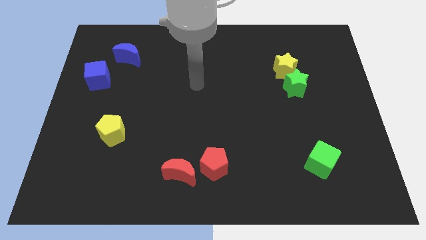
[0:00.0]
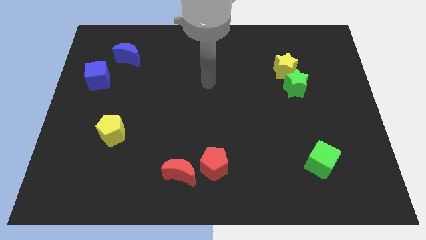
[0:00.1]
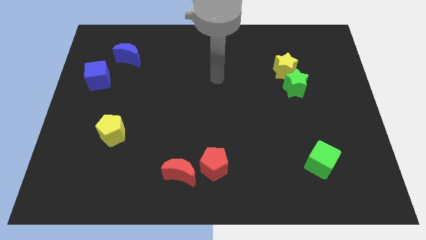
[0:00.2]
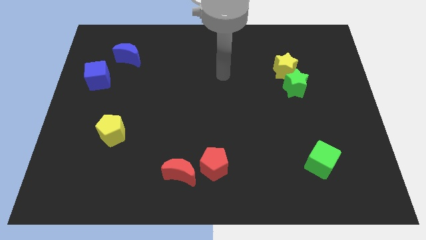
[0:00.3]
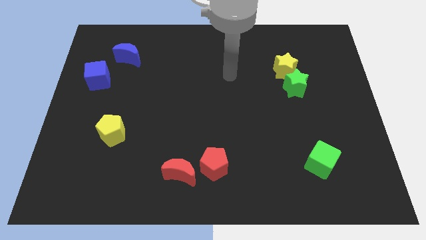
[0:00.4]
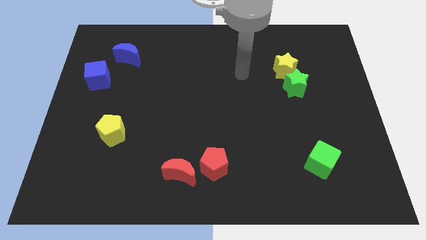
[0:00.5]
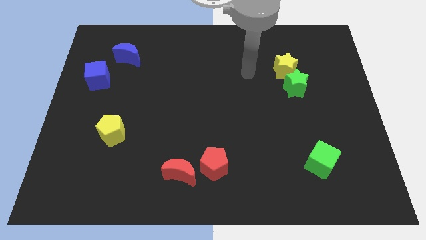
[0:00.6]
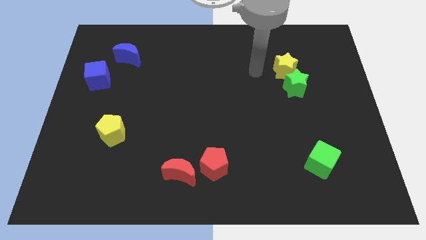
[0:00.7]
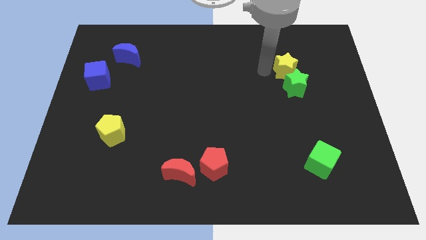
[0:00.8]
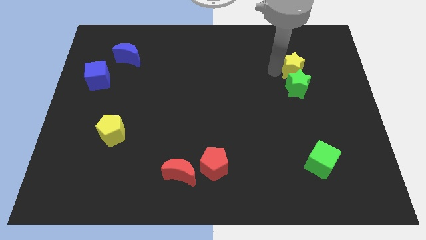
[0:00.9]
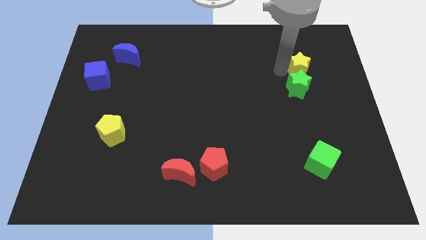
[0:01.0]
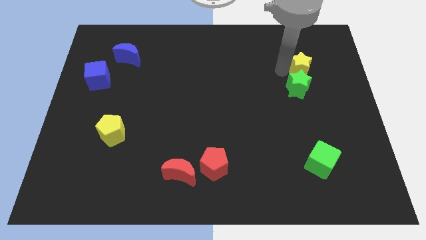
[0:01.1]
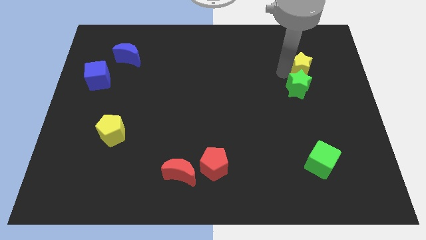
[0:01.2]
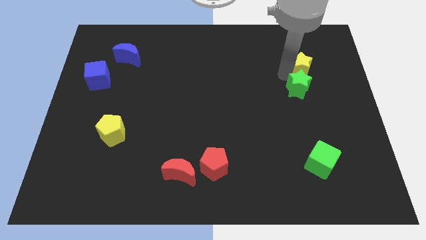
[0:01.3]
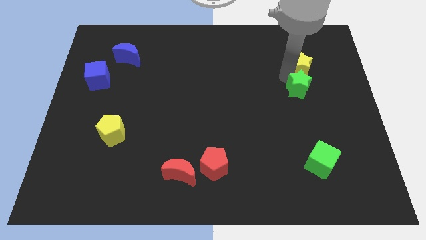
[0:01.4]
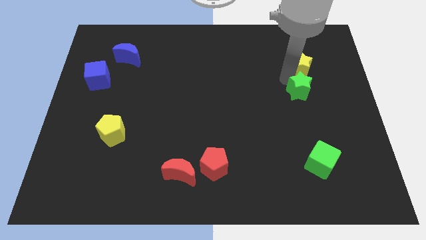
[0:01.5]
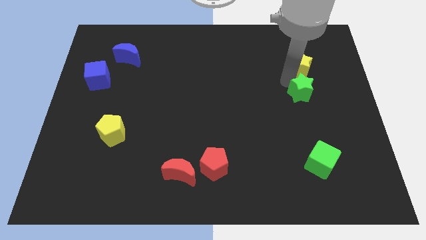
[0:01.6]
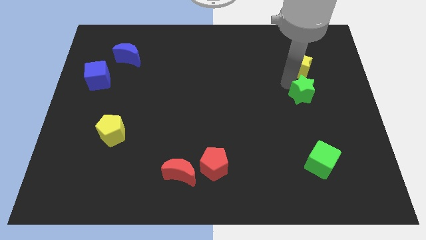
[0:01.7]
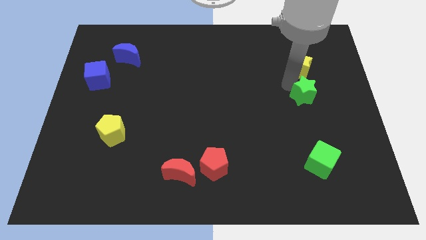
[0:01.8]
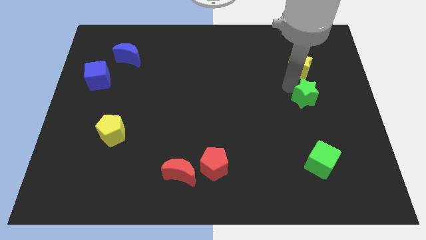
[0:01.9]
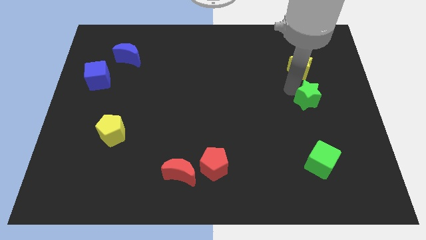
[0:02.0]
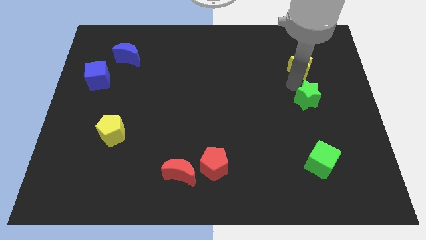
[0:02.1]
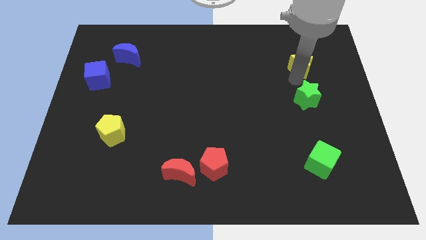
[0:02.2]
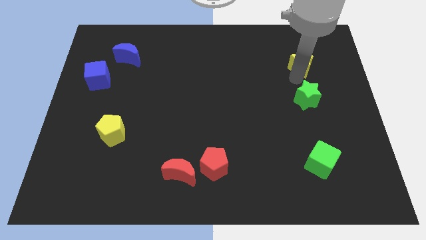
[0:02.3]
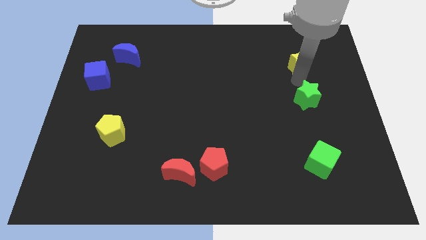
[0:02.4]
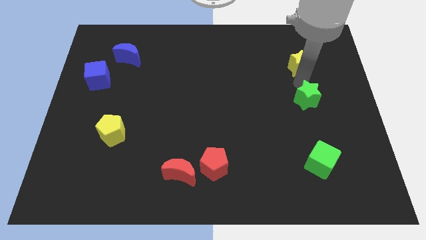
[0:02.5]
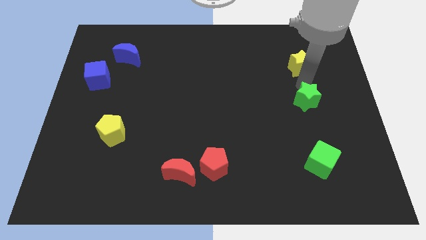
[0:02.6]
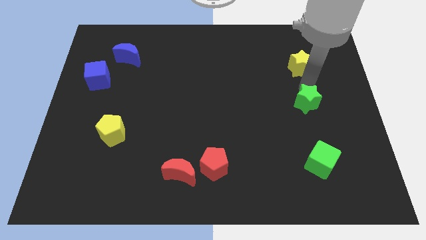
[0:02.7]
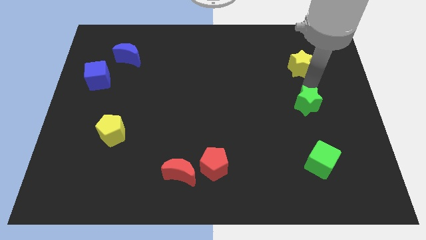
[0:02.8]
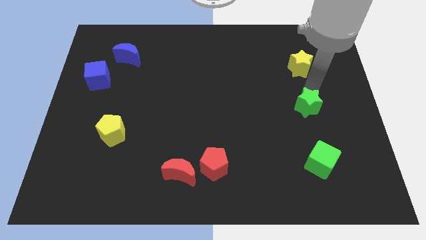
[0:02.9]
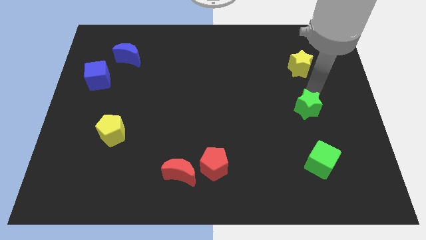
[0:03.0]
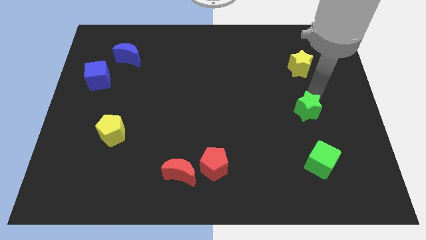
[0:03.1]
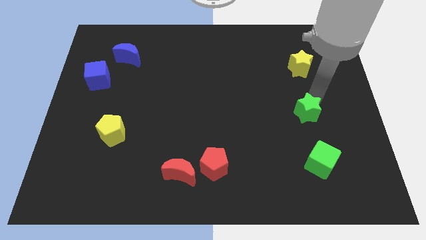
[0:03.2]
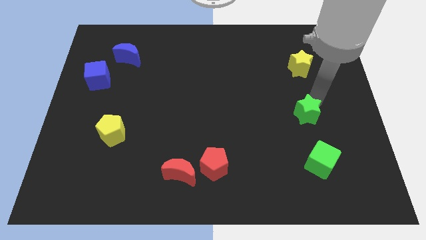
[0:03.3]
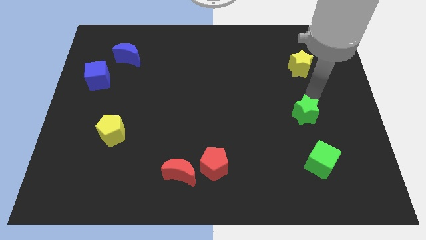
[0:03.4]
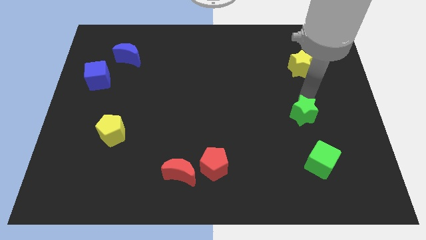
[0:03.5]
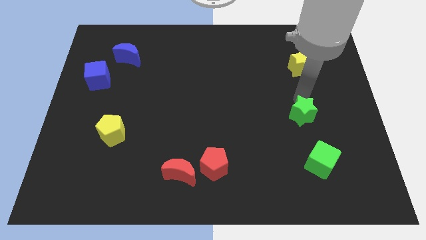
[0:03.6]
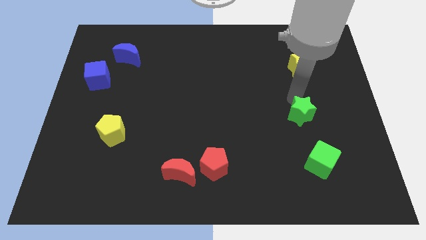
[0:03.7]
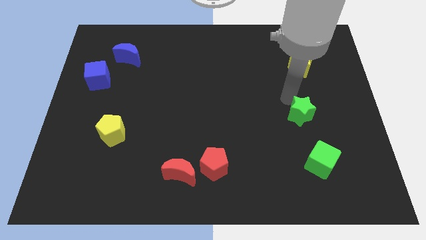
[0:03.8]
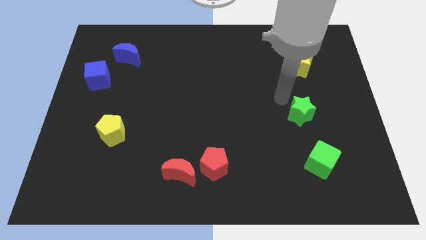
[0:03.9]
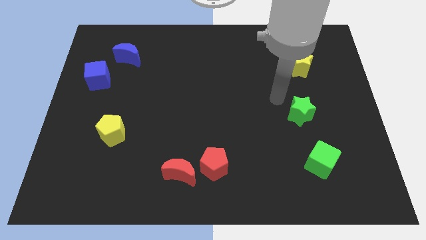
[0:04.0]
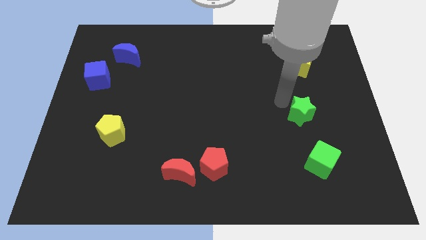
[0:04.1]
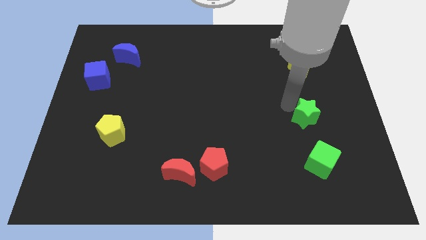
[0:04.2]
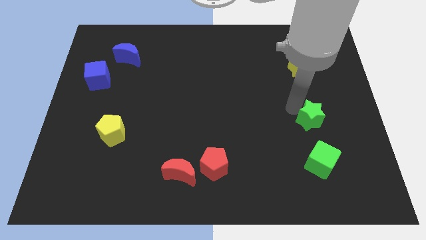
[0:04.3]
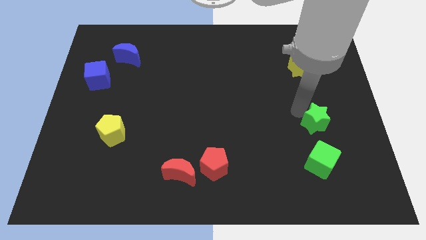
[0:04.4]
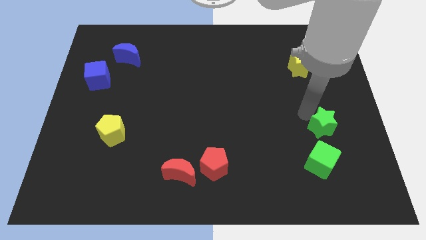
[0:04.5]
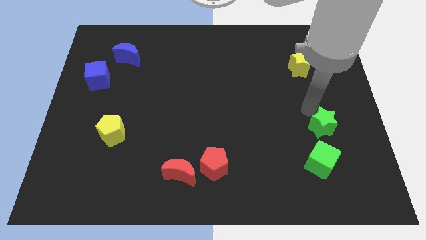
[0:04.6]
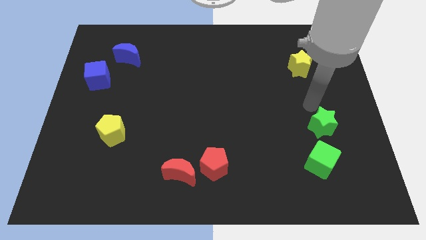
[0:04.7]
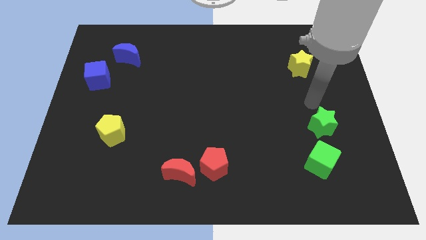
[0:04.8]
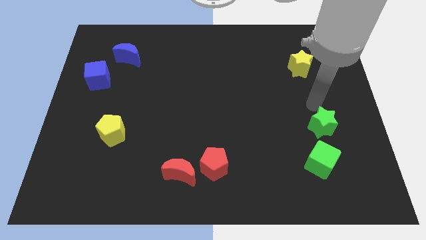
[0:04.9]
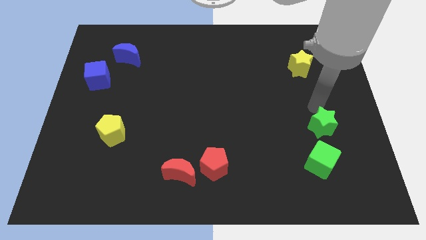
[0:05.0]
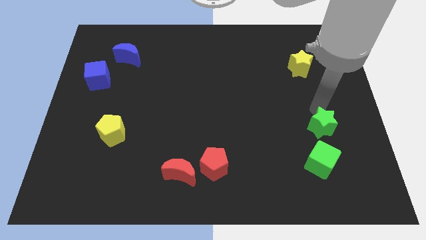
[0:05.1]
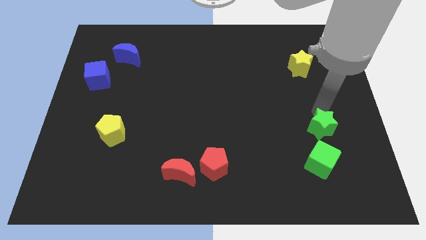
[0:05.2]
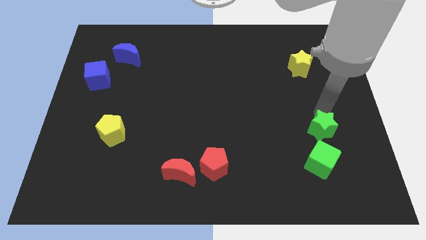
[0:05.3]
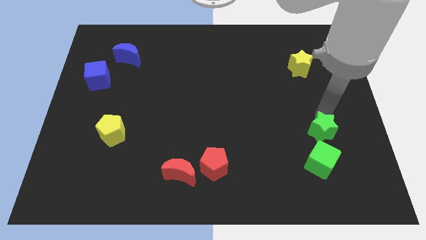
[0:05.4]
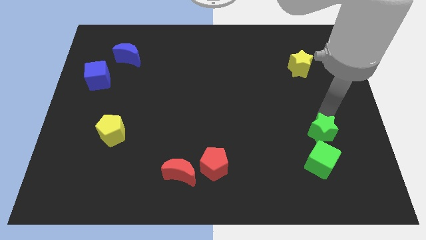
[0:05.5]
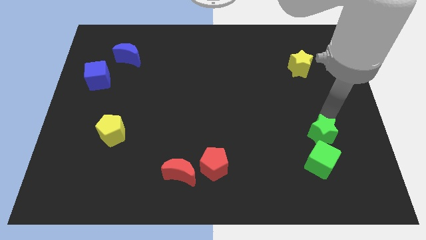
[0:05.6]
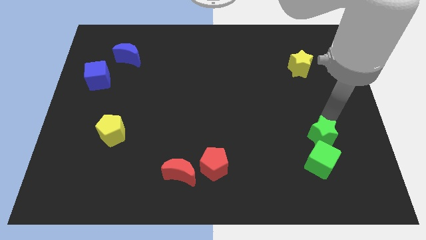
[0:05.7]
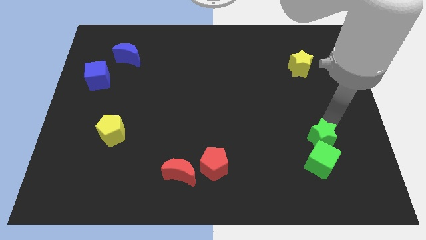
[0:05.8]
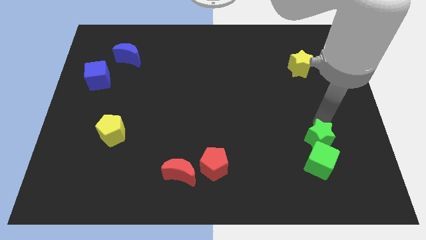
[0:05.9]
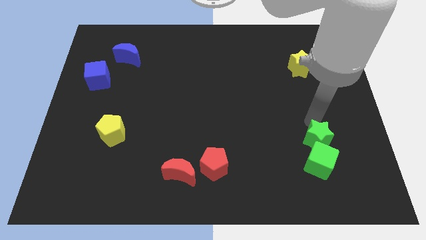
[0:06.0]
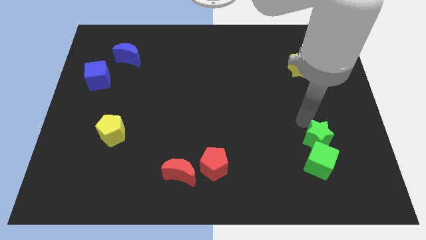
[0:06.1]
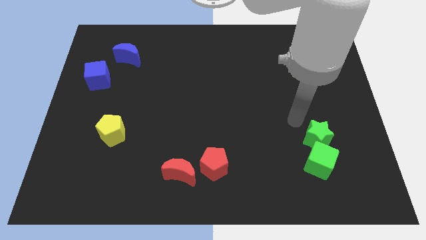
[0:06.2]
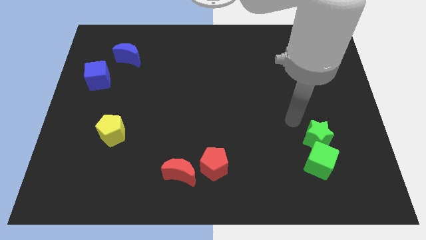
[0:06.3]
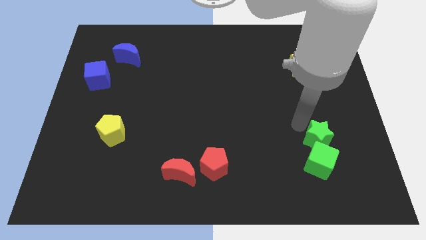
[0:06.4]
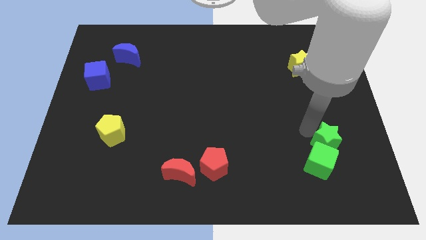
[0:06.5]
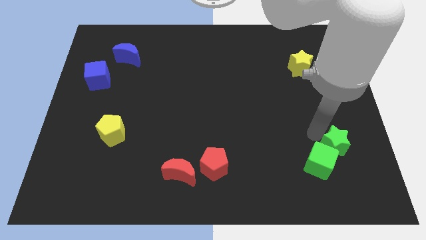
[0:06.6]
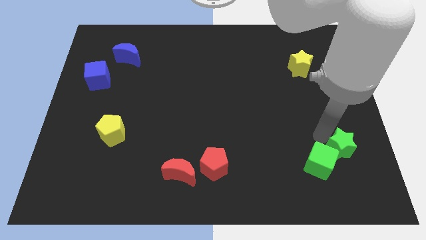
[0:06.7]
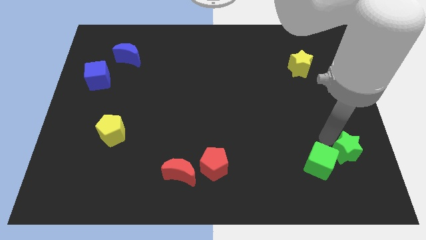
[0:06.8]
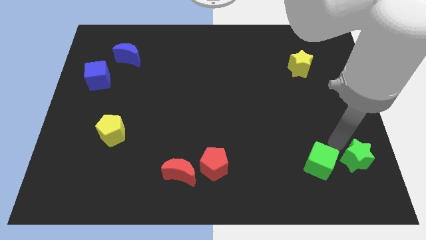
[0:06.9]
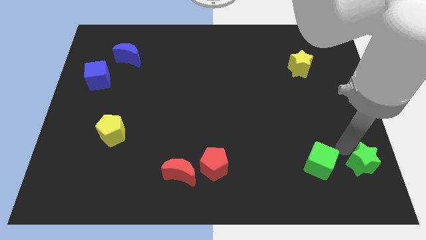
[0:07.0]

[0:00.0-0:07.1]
push the green star to the bottom right
